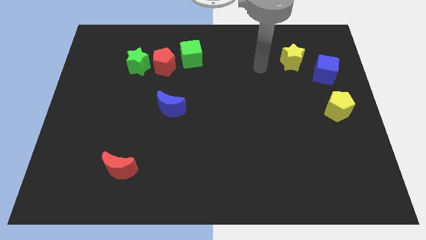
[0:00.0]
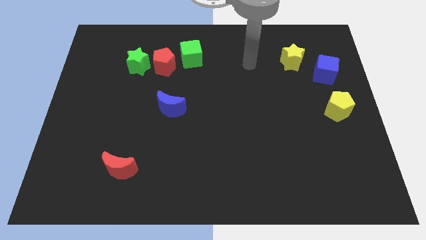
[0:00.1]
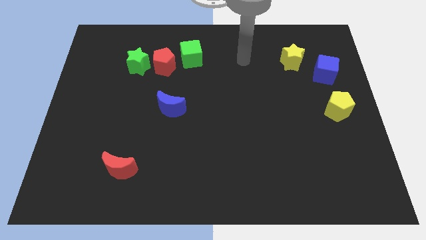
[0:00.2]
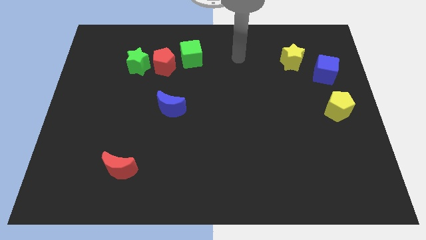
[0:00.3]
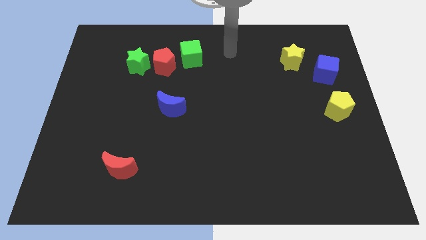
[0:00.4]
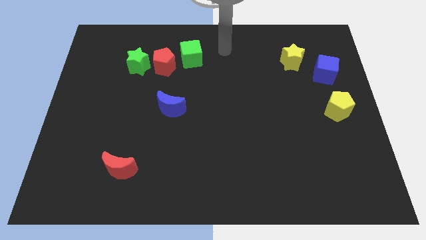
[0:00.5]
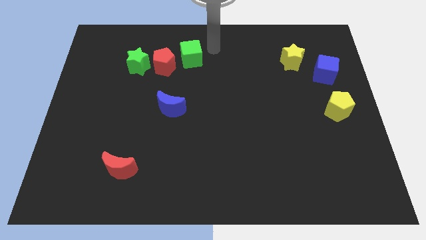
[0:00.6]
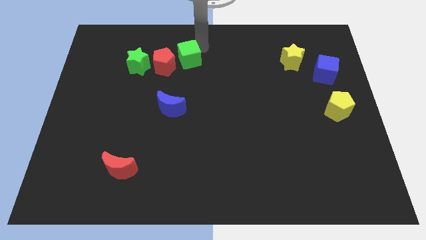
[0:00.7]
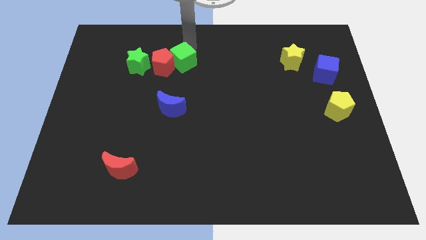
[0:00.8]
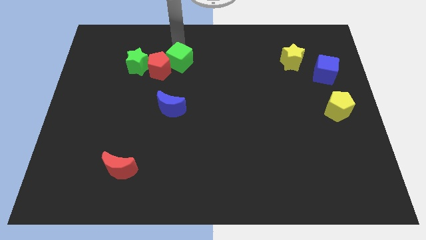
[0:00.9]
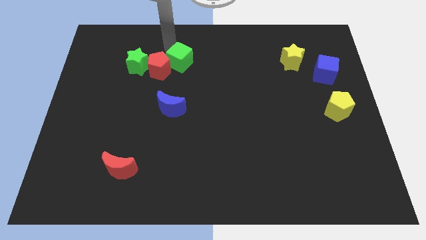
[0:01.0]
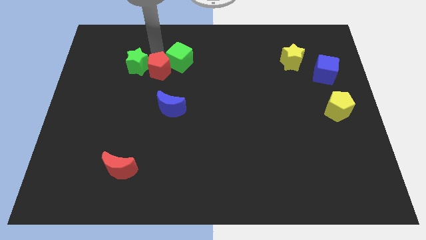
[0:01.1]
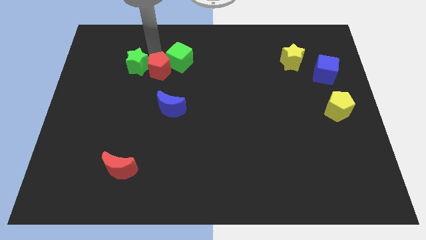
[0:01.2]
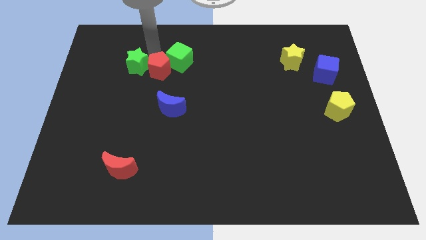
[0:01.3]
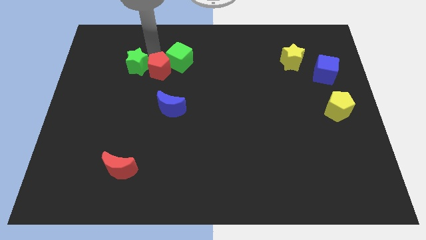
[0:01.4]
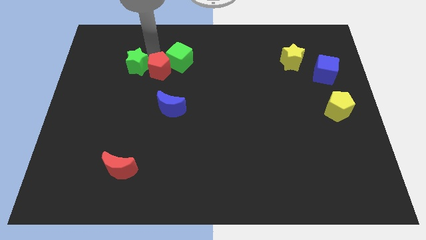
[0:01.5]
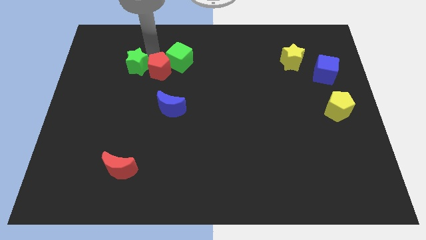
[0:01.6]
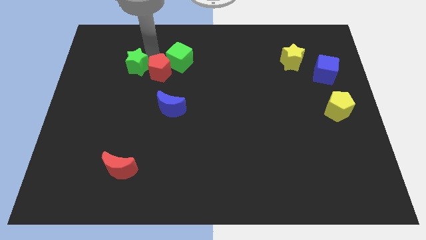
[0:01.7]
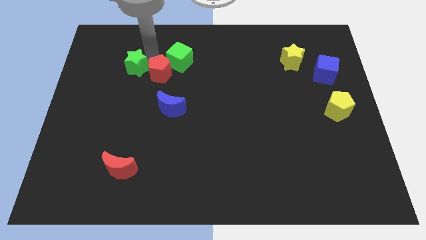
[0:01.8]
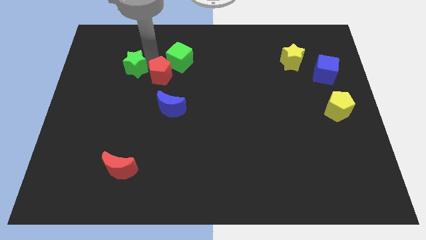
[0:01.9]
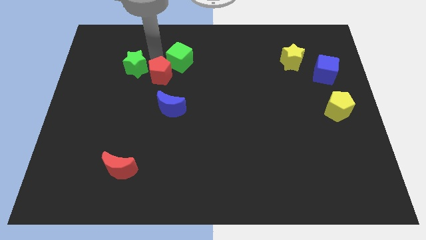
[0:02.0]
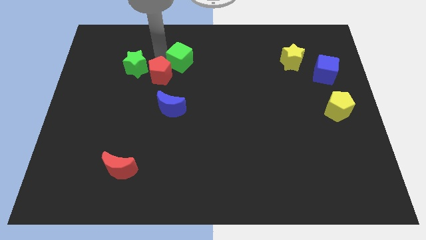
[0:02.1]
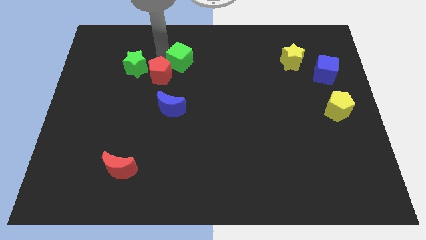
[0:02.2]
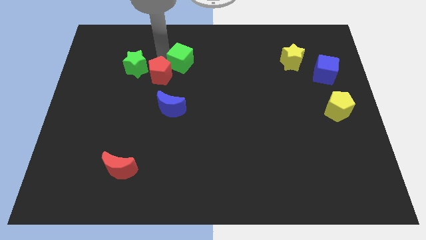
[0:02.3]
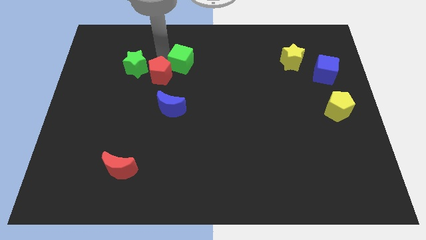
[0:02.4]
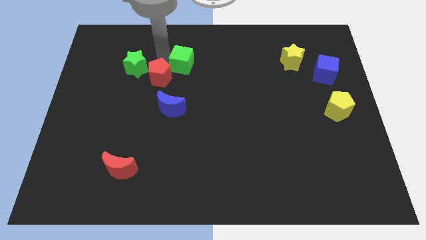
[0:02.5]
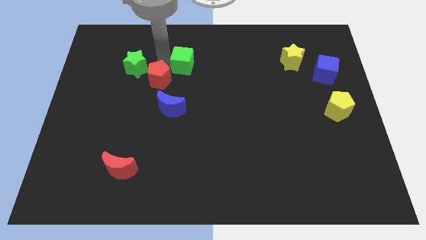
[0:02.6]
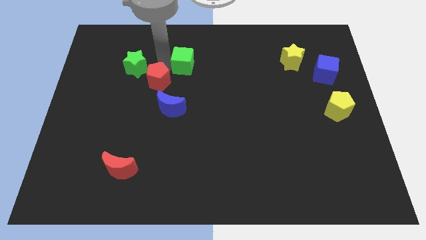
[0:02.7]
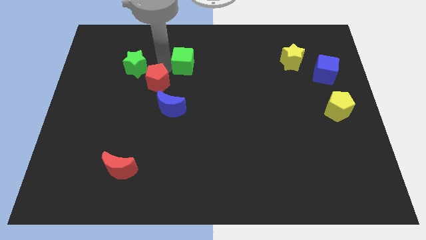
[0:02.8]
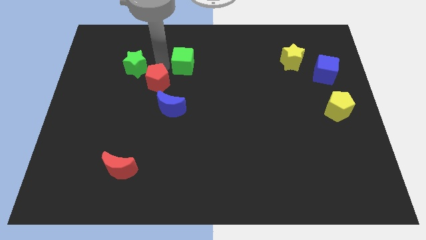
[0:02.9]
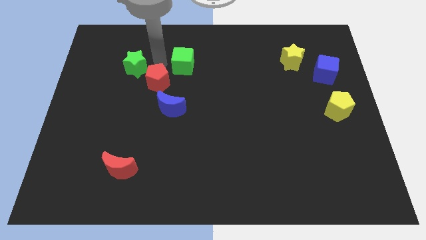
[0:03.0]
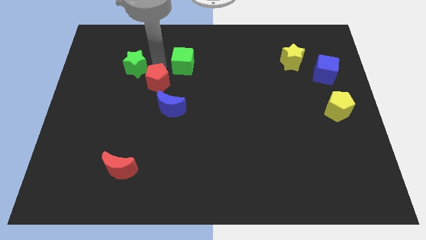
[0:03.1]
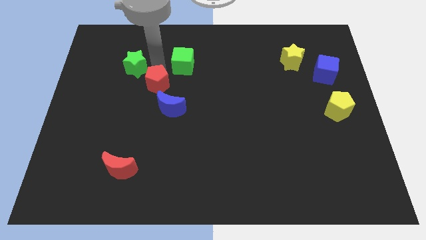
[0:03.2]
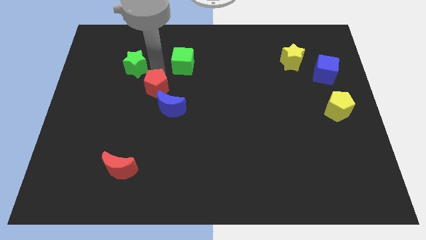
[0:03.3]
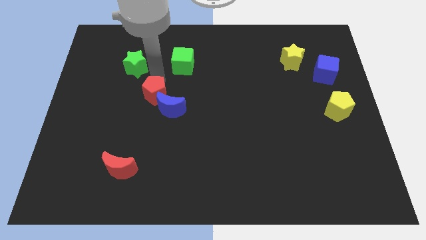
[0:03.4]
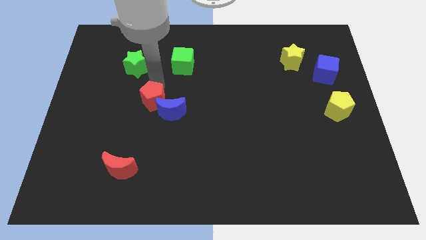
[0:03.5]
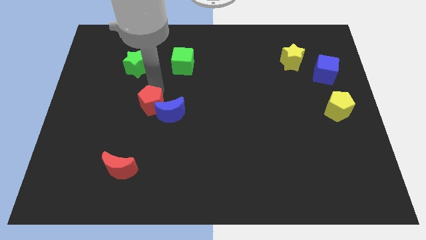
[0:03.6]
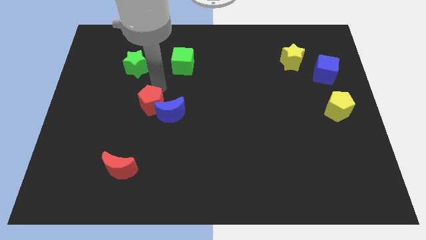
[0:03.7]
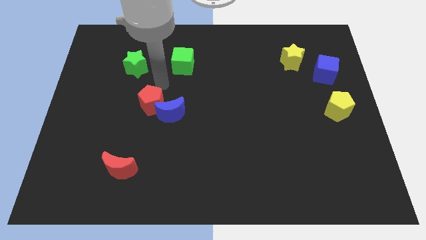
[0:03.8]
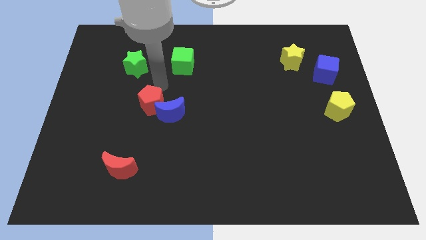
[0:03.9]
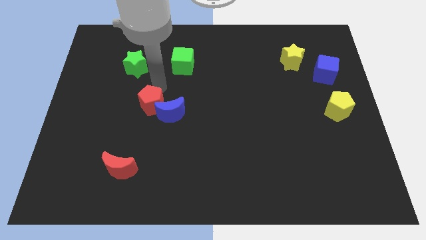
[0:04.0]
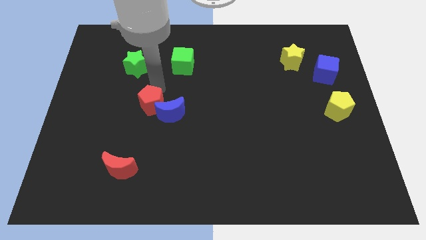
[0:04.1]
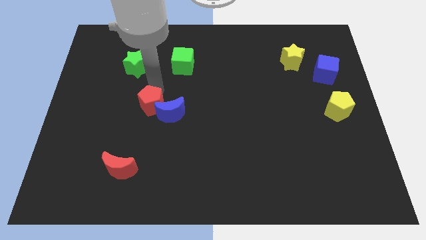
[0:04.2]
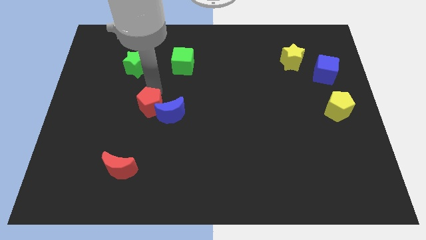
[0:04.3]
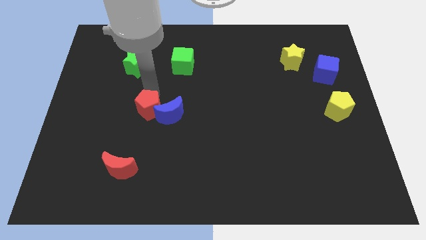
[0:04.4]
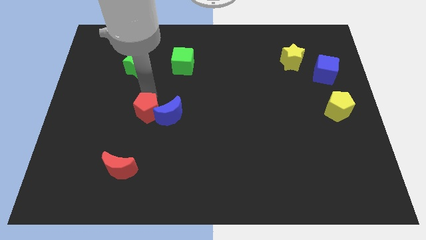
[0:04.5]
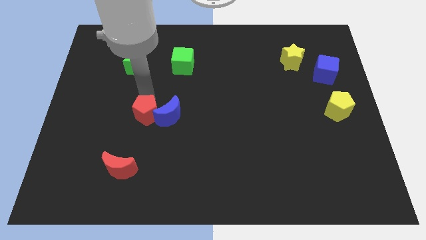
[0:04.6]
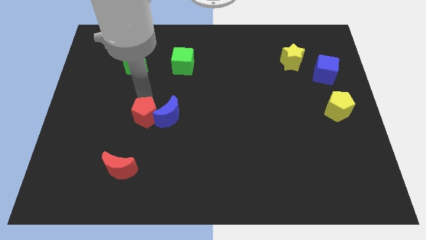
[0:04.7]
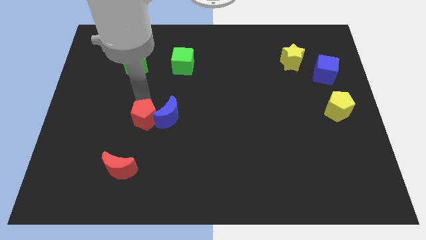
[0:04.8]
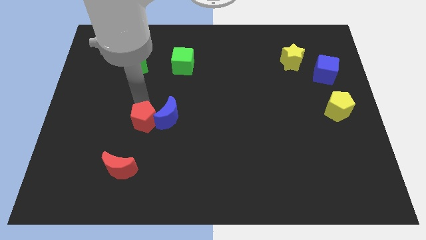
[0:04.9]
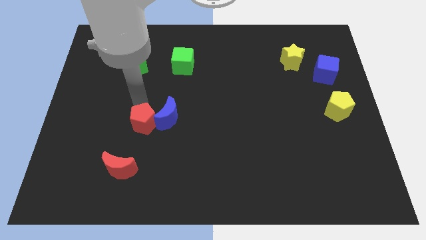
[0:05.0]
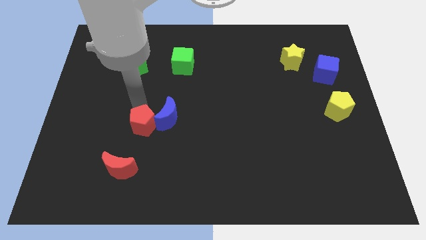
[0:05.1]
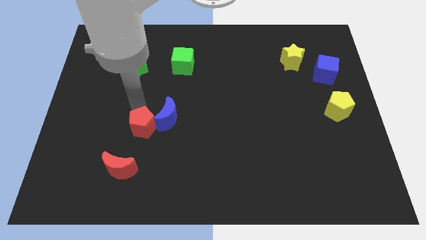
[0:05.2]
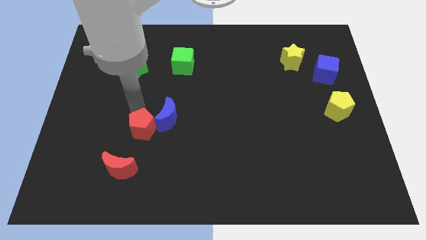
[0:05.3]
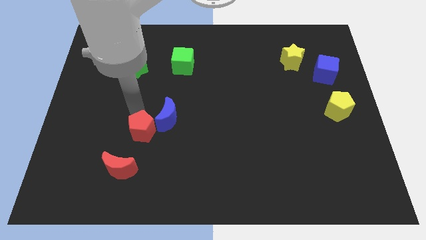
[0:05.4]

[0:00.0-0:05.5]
move the red pentagon downwards

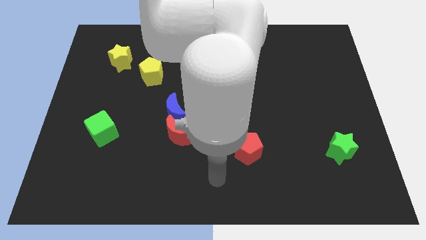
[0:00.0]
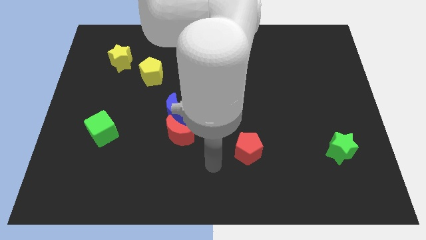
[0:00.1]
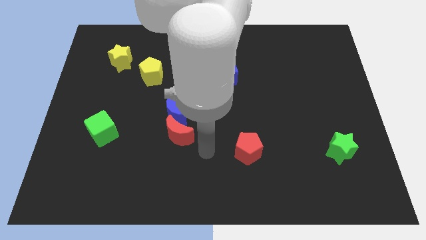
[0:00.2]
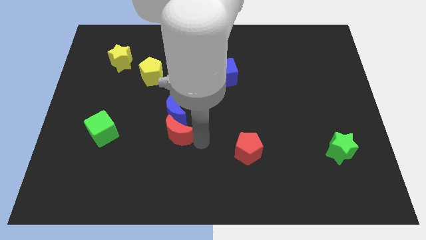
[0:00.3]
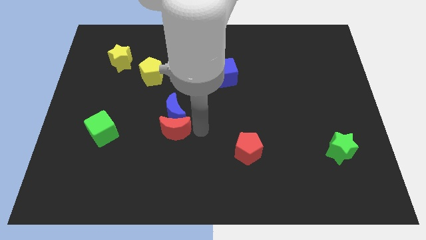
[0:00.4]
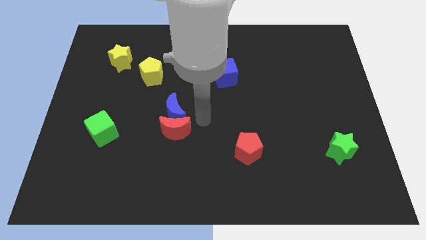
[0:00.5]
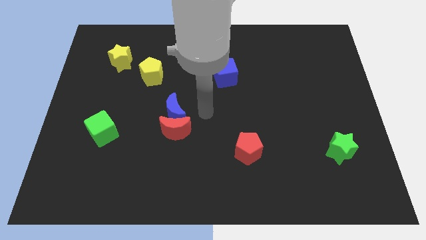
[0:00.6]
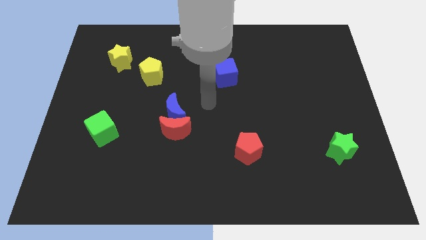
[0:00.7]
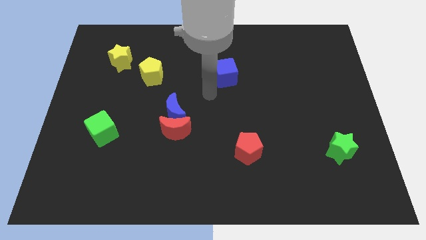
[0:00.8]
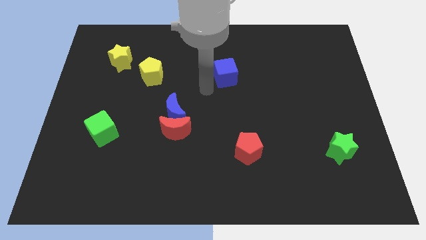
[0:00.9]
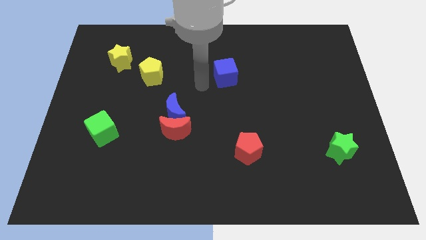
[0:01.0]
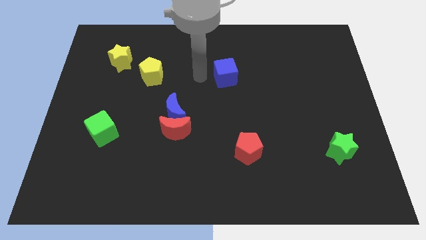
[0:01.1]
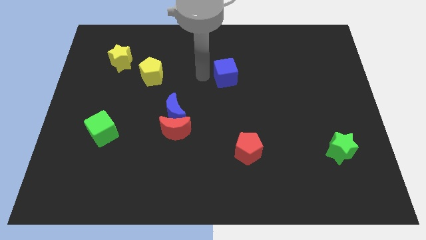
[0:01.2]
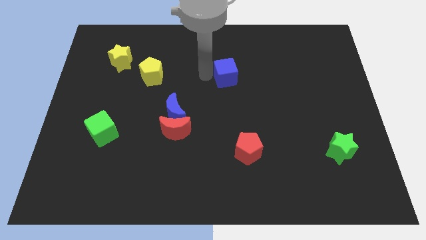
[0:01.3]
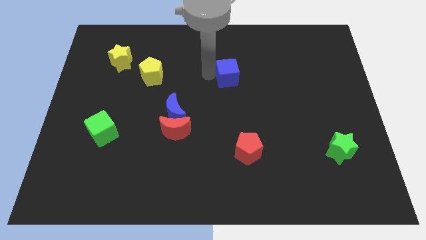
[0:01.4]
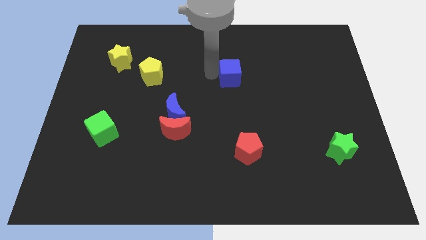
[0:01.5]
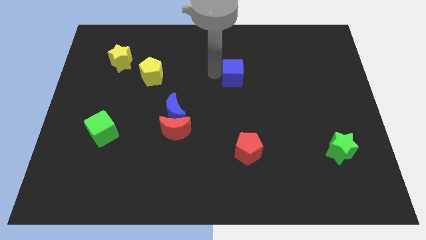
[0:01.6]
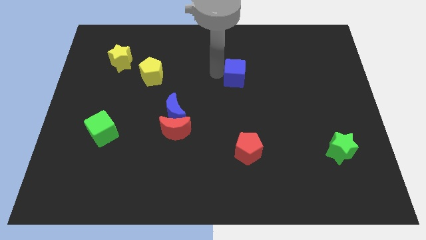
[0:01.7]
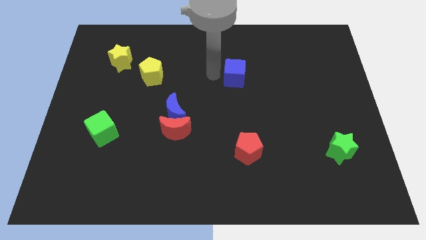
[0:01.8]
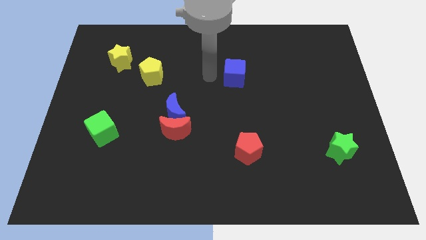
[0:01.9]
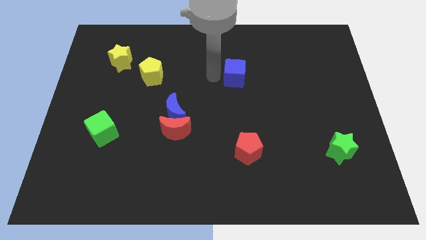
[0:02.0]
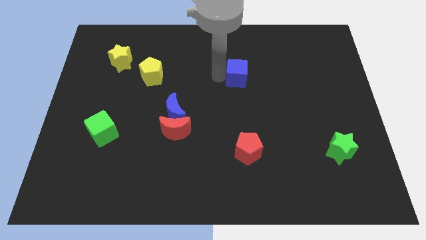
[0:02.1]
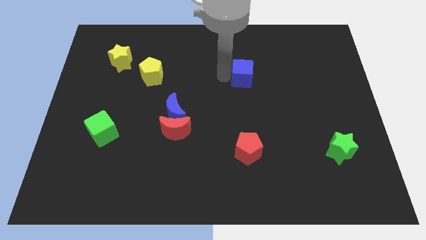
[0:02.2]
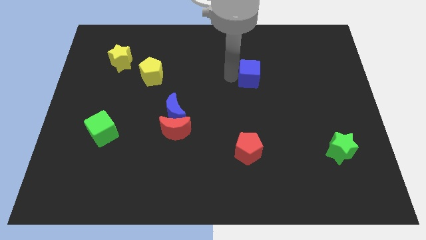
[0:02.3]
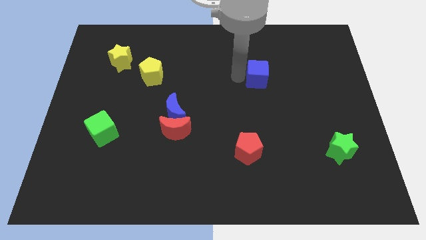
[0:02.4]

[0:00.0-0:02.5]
slightly slide the blue cube to the right
